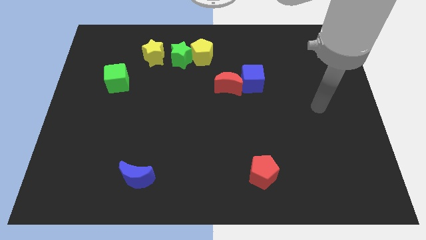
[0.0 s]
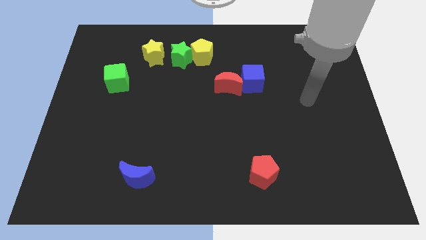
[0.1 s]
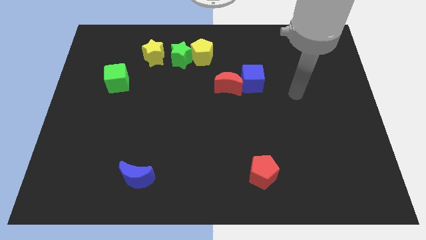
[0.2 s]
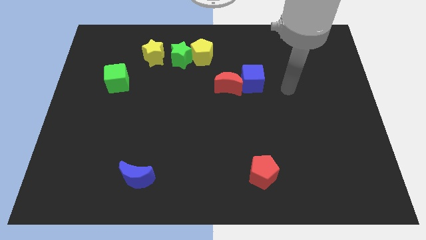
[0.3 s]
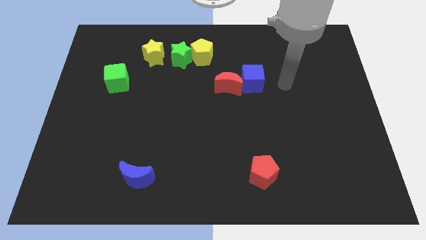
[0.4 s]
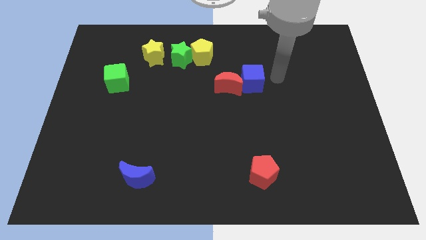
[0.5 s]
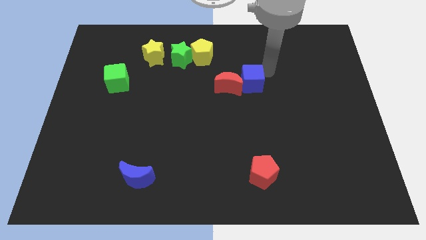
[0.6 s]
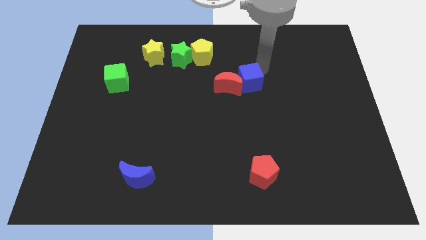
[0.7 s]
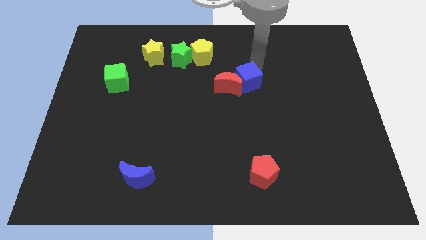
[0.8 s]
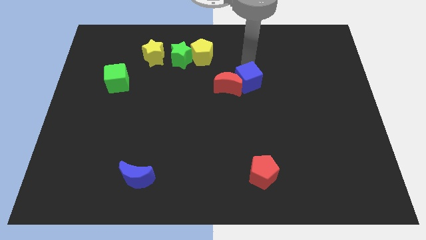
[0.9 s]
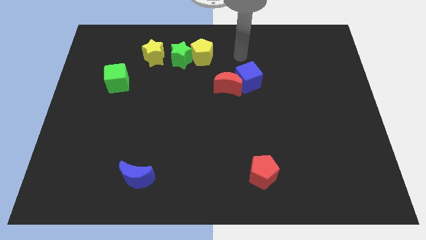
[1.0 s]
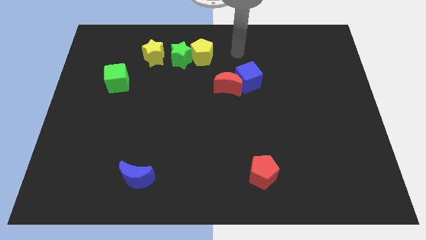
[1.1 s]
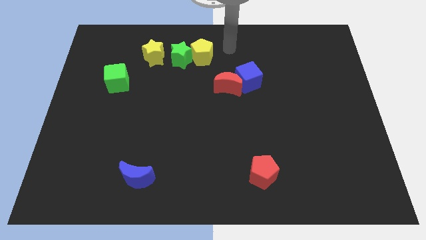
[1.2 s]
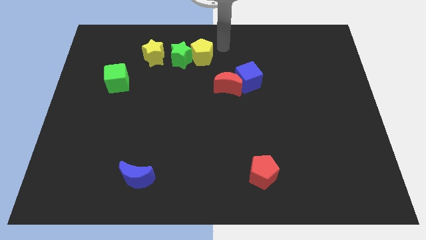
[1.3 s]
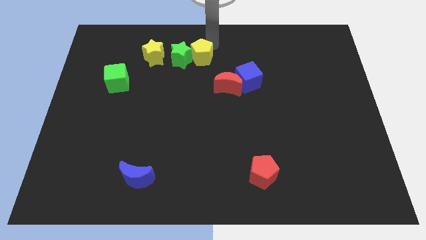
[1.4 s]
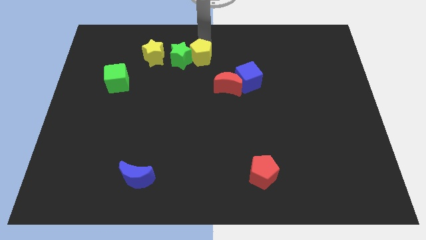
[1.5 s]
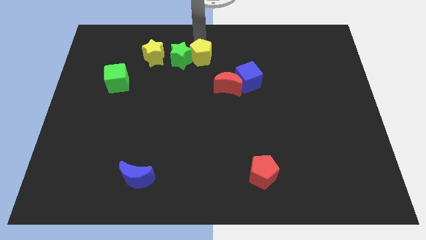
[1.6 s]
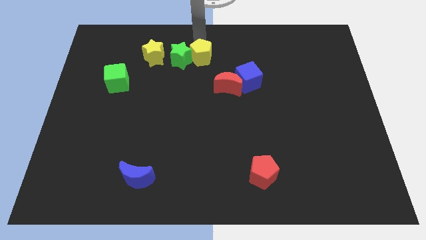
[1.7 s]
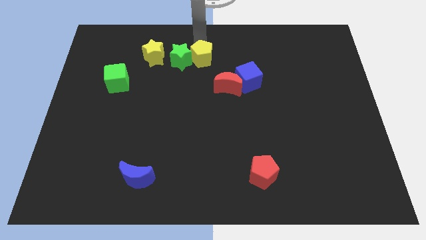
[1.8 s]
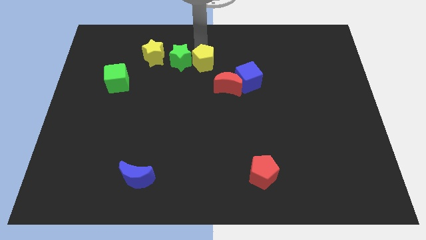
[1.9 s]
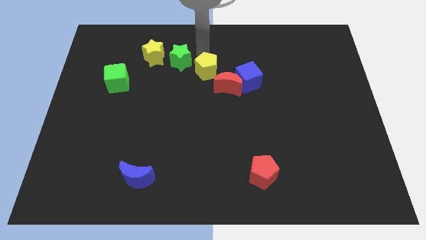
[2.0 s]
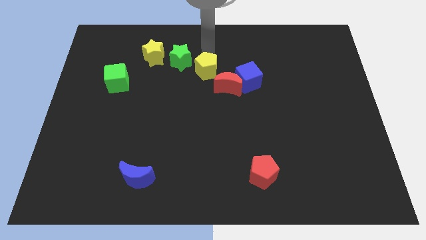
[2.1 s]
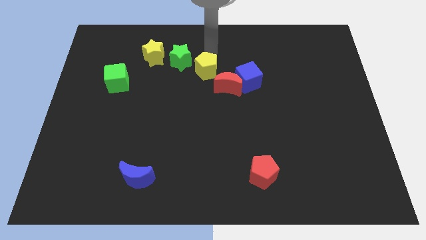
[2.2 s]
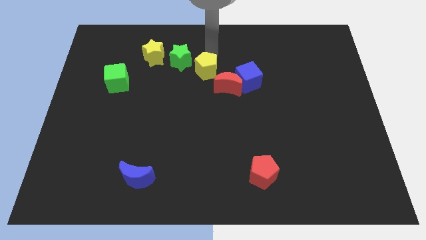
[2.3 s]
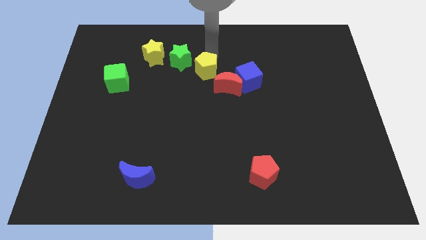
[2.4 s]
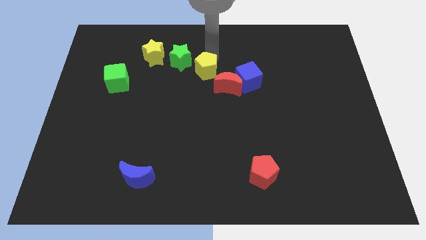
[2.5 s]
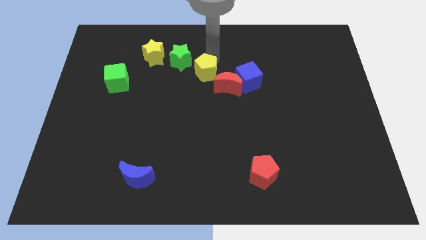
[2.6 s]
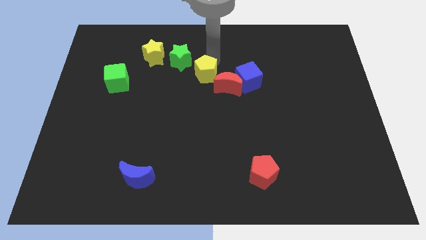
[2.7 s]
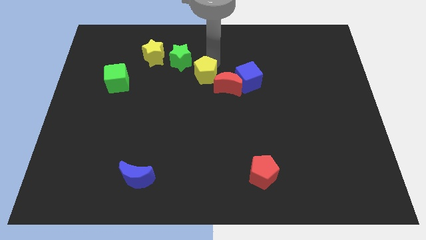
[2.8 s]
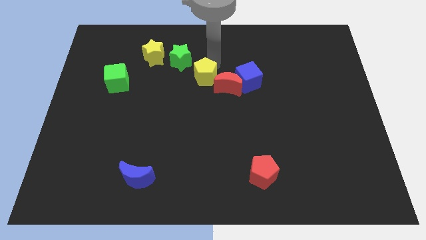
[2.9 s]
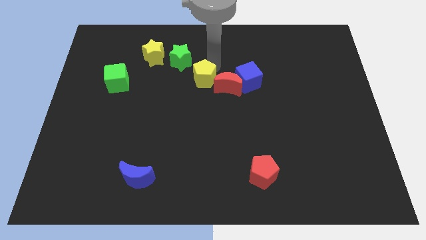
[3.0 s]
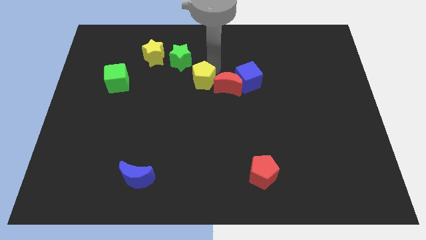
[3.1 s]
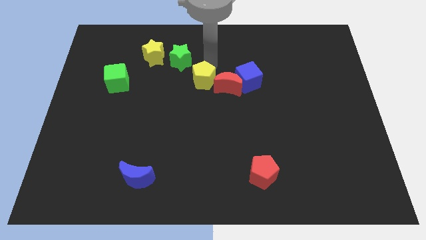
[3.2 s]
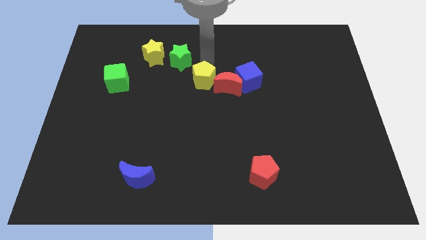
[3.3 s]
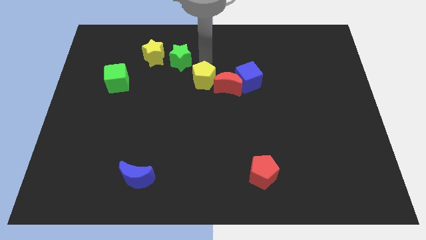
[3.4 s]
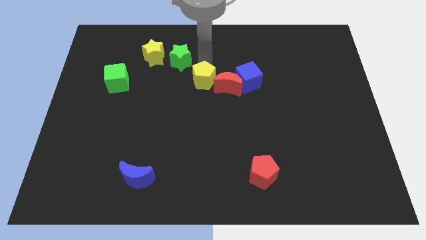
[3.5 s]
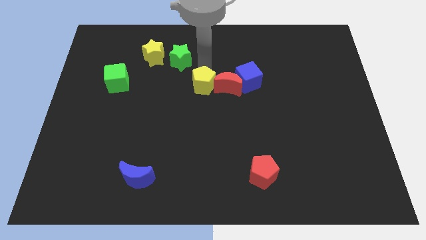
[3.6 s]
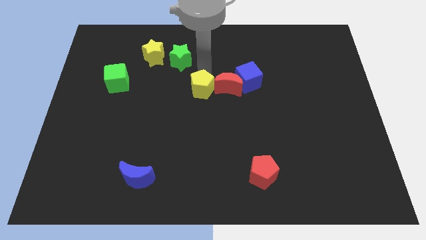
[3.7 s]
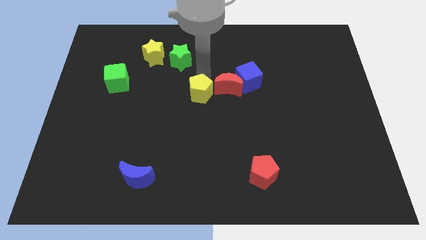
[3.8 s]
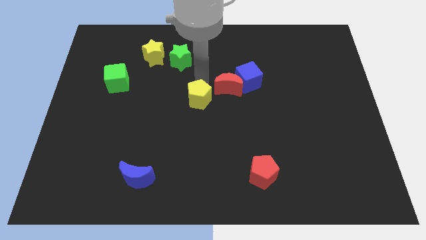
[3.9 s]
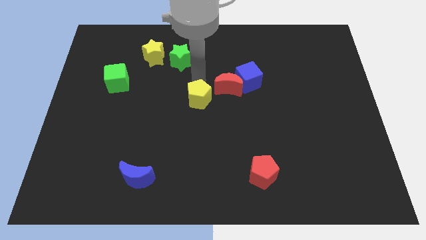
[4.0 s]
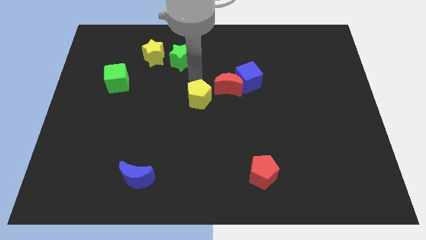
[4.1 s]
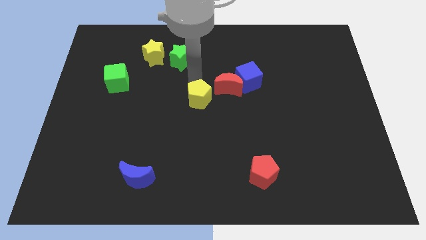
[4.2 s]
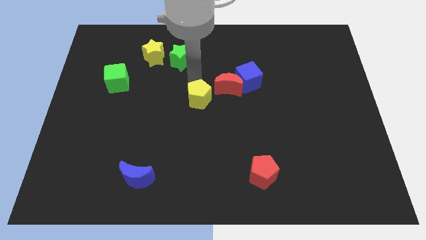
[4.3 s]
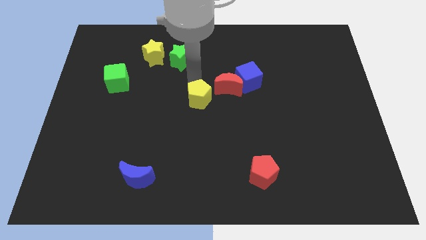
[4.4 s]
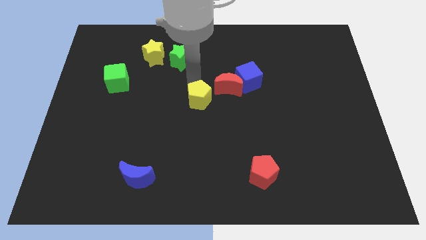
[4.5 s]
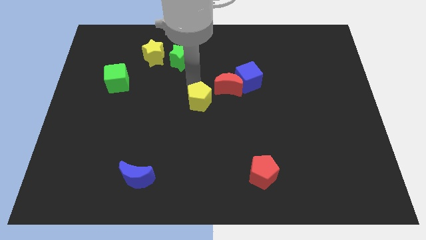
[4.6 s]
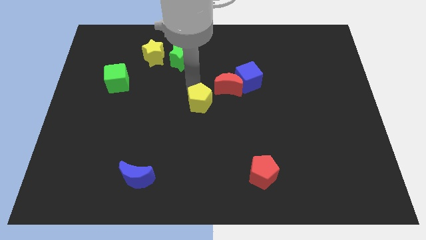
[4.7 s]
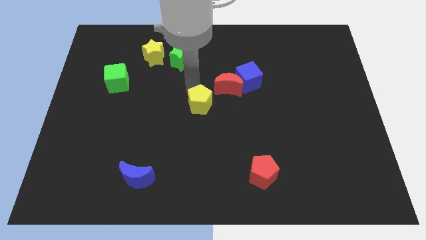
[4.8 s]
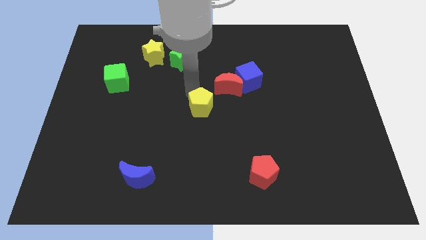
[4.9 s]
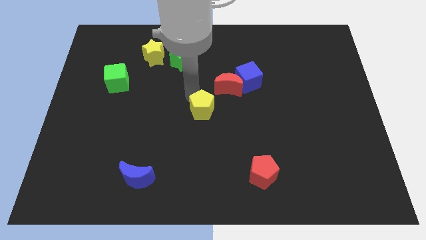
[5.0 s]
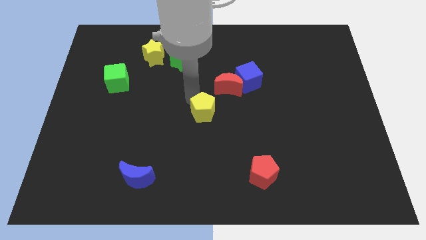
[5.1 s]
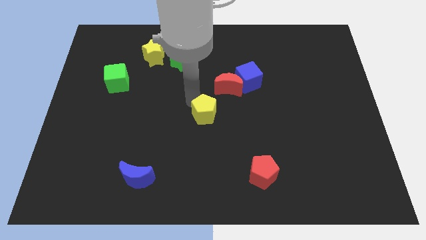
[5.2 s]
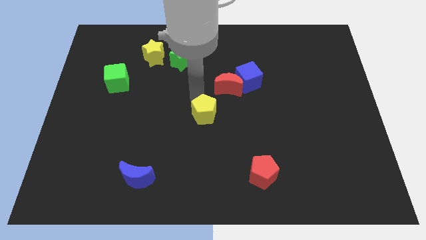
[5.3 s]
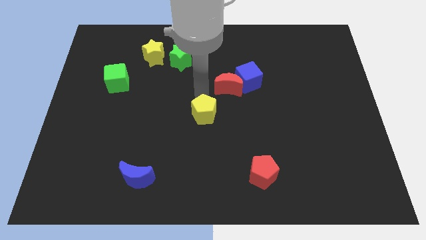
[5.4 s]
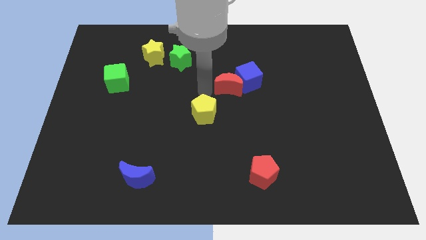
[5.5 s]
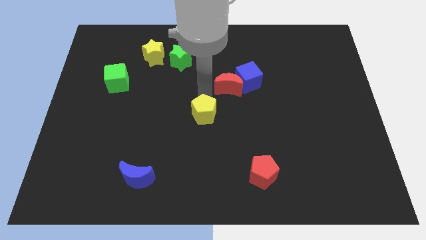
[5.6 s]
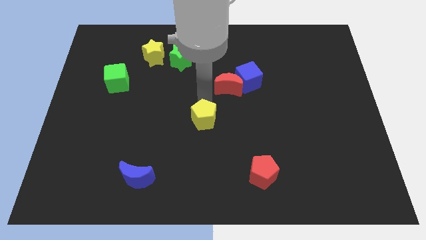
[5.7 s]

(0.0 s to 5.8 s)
push the yellow pentagon downwards

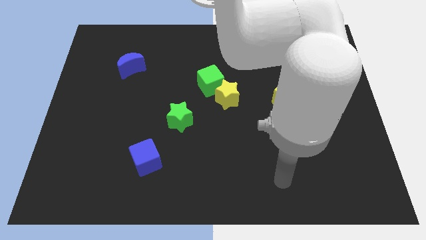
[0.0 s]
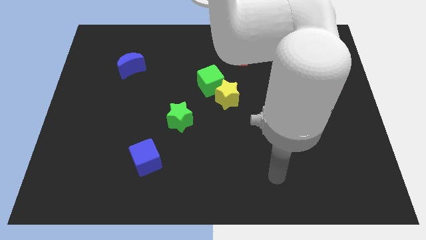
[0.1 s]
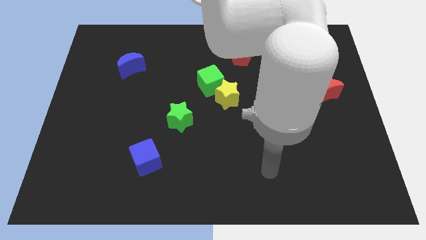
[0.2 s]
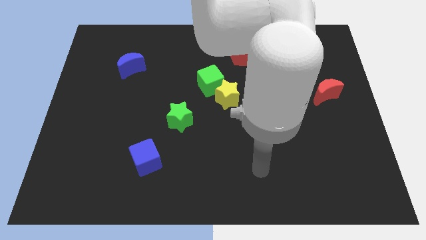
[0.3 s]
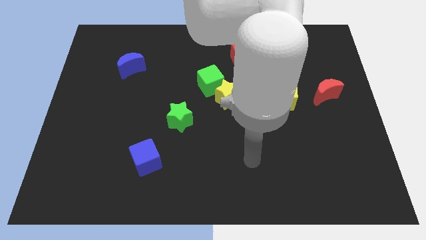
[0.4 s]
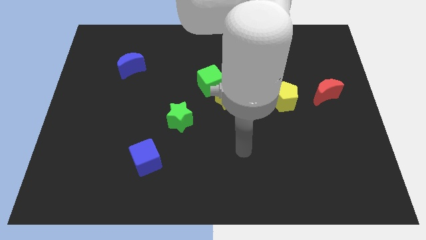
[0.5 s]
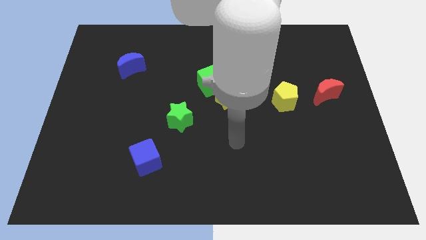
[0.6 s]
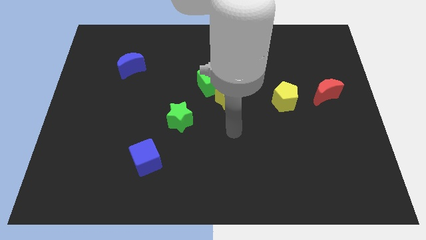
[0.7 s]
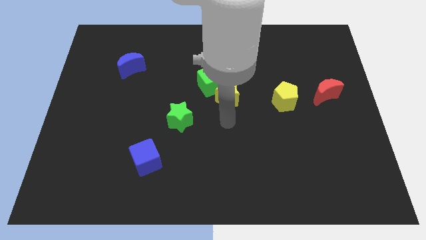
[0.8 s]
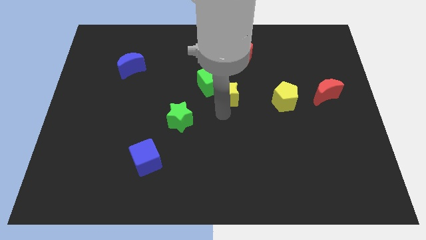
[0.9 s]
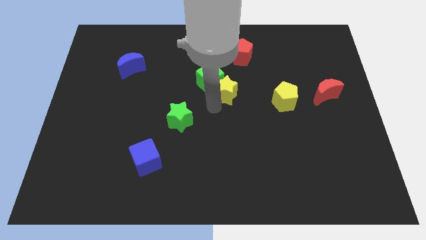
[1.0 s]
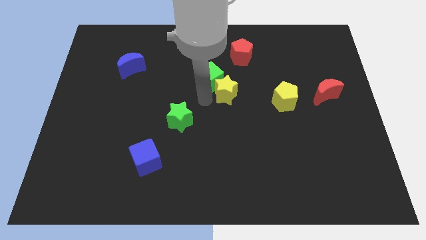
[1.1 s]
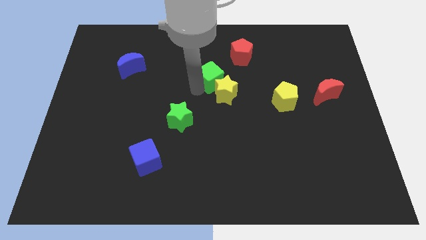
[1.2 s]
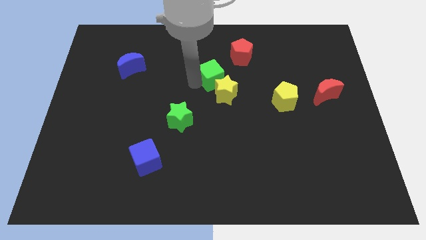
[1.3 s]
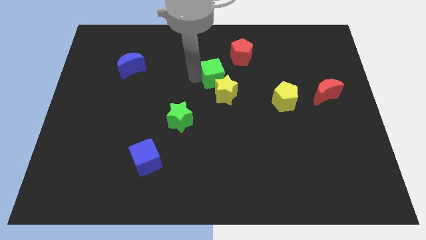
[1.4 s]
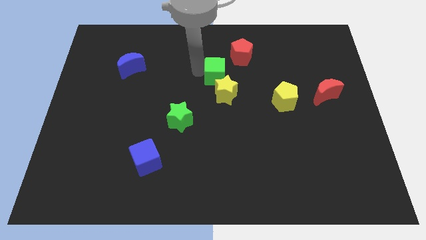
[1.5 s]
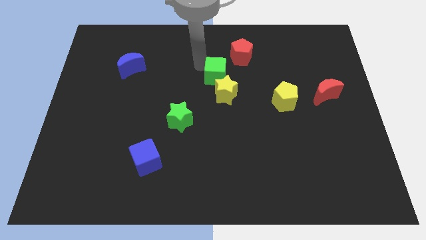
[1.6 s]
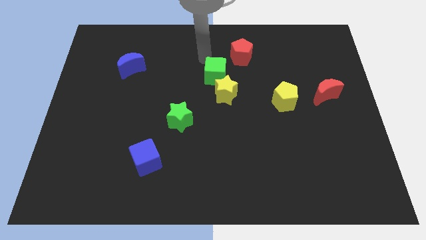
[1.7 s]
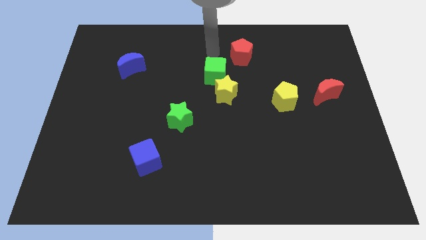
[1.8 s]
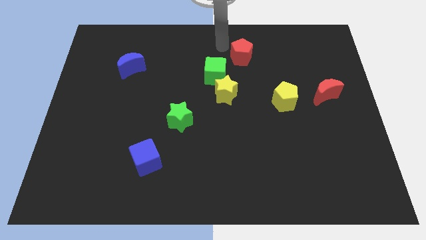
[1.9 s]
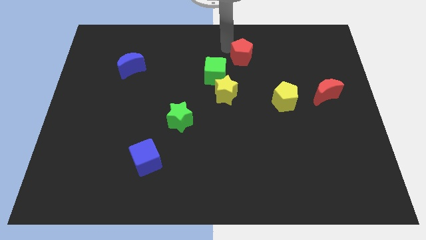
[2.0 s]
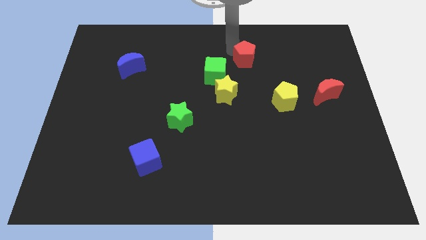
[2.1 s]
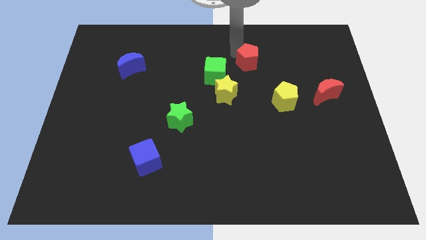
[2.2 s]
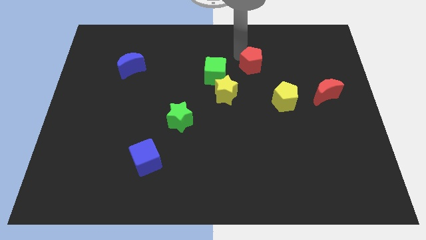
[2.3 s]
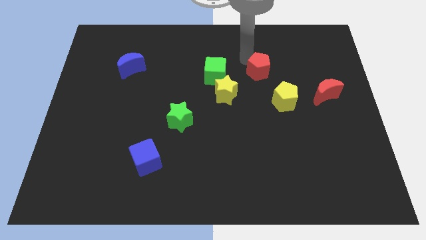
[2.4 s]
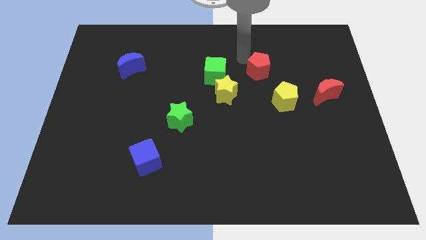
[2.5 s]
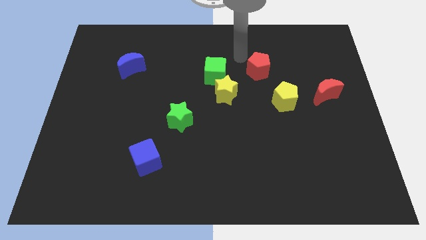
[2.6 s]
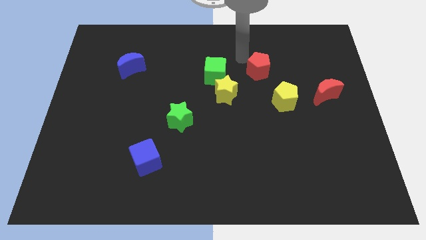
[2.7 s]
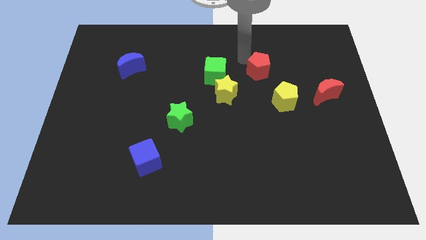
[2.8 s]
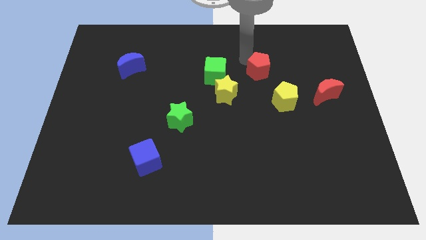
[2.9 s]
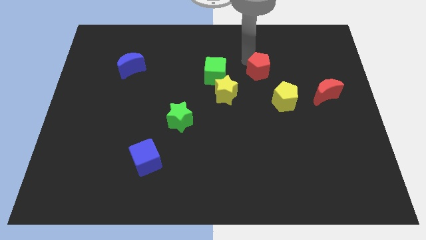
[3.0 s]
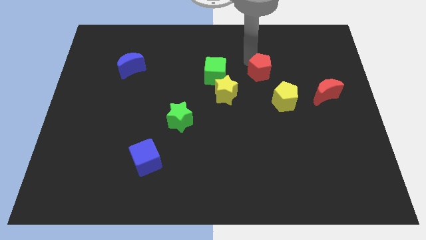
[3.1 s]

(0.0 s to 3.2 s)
slightly push the red pentagon down and right diagonally
